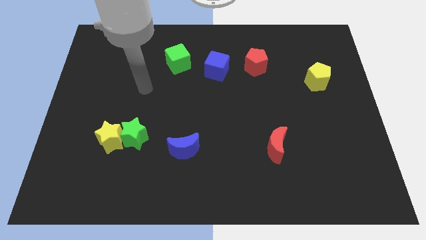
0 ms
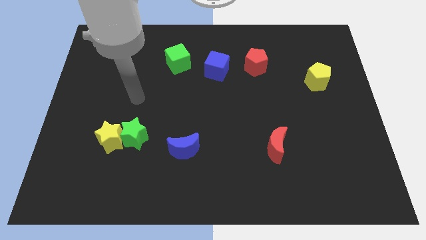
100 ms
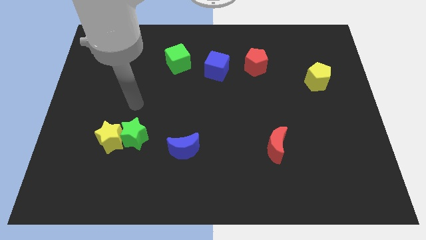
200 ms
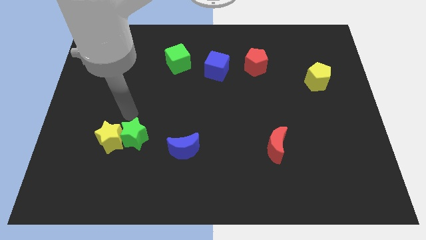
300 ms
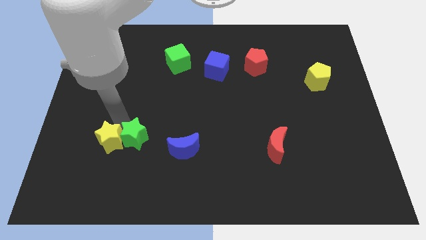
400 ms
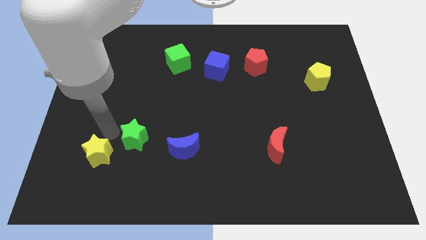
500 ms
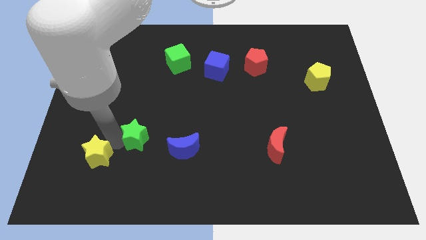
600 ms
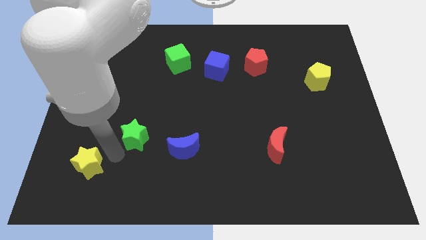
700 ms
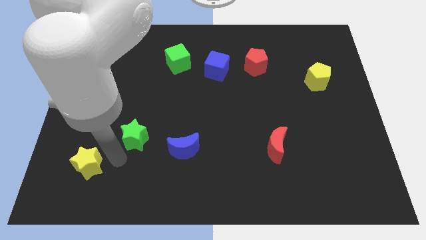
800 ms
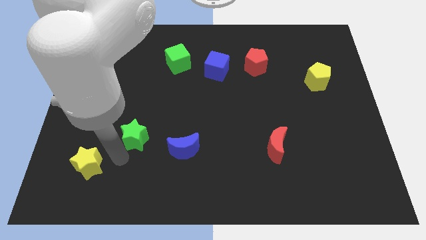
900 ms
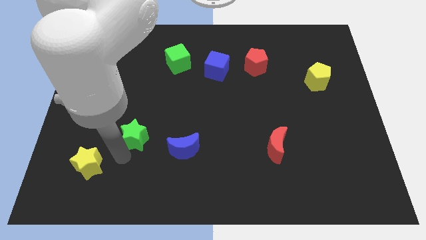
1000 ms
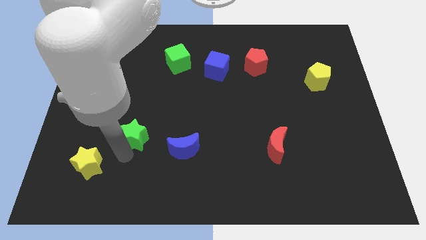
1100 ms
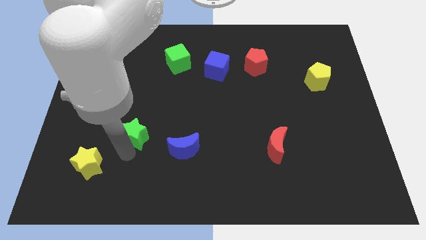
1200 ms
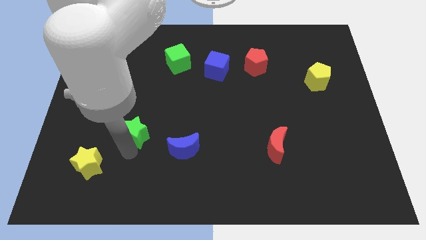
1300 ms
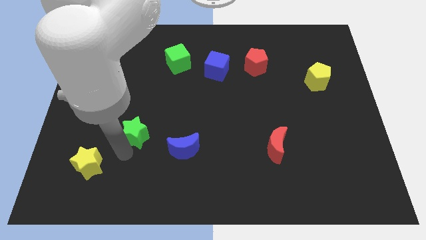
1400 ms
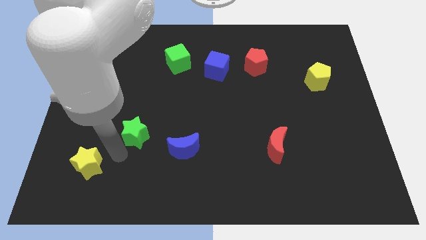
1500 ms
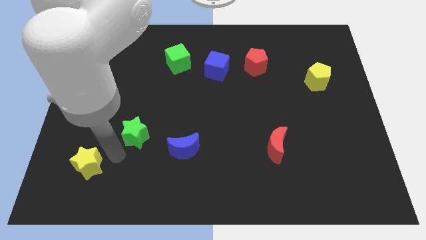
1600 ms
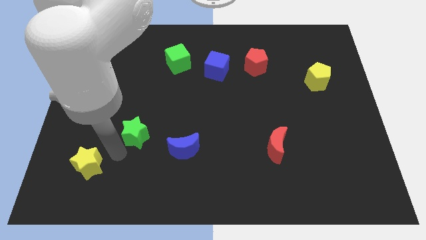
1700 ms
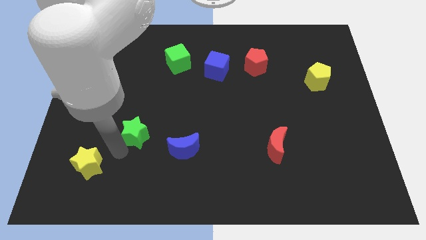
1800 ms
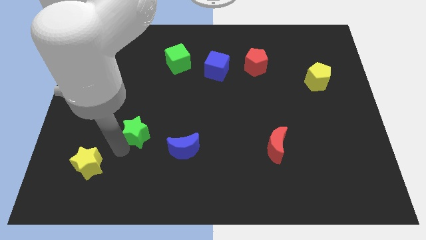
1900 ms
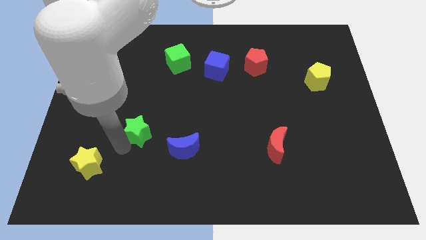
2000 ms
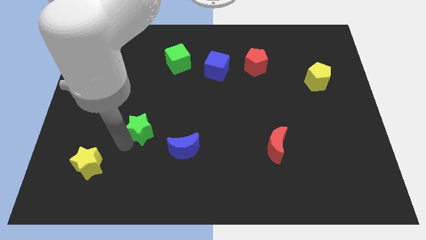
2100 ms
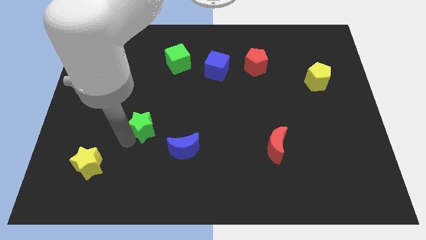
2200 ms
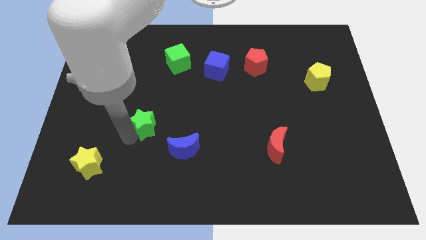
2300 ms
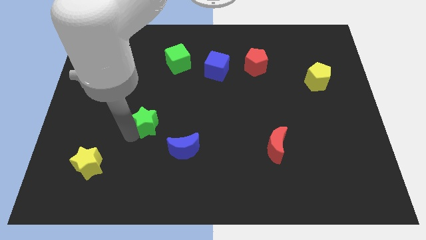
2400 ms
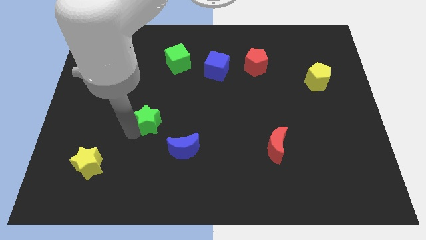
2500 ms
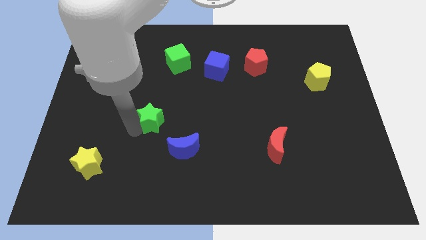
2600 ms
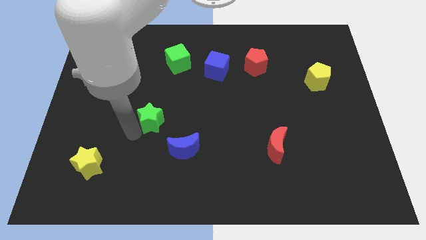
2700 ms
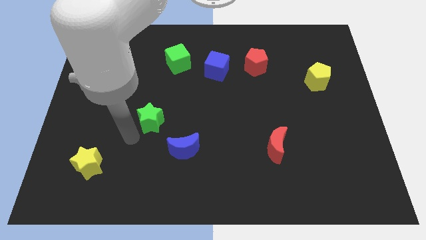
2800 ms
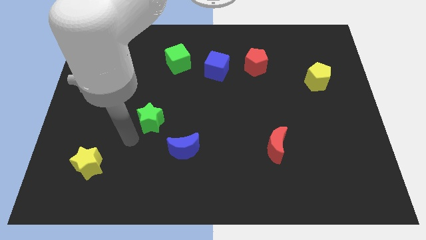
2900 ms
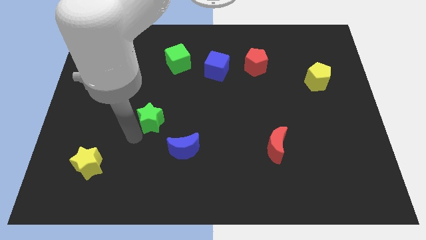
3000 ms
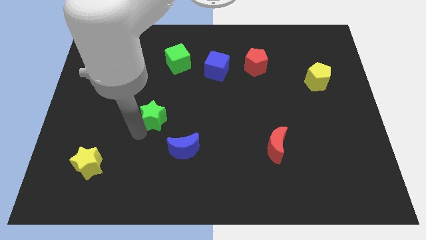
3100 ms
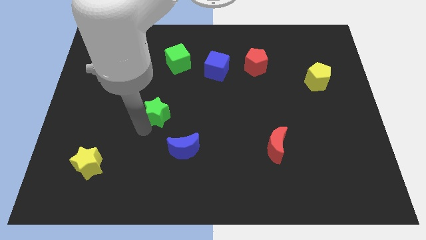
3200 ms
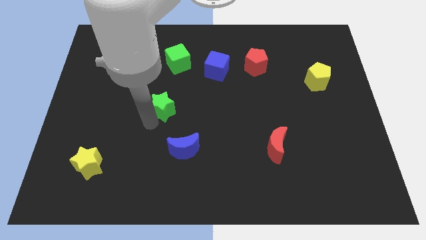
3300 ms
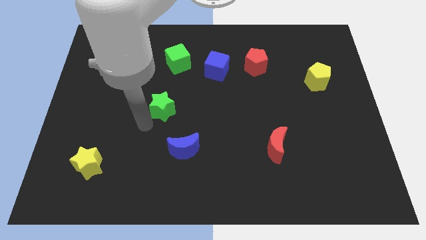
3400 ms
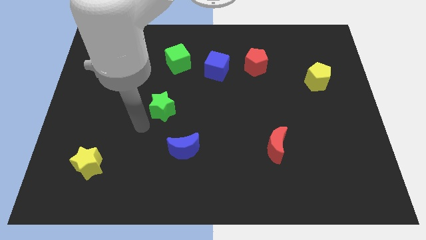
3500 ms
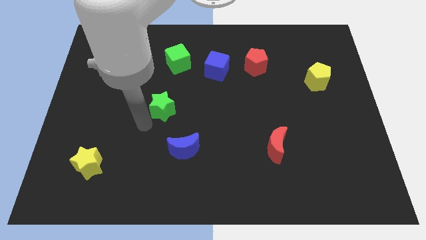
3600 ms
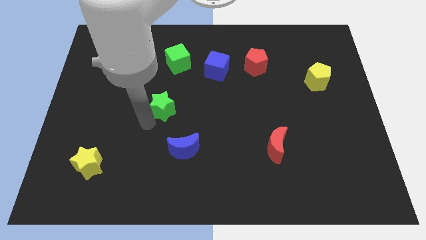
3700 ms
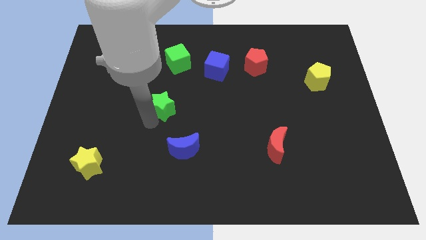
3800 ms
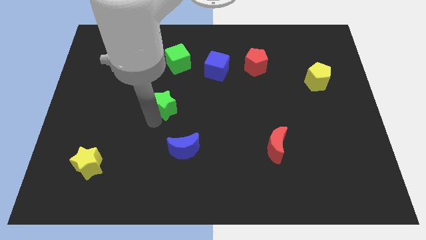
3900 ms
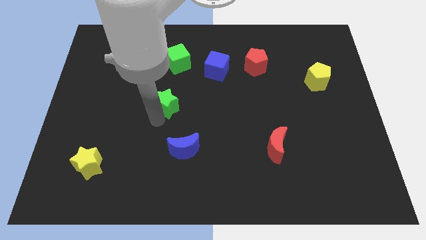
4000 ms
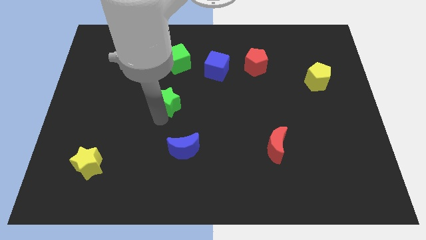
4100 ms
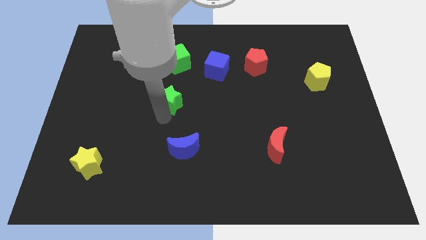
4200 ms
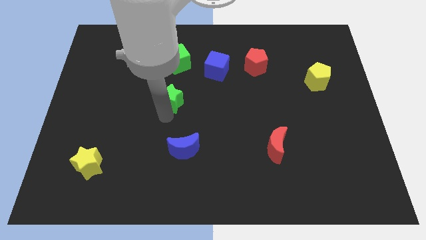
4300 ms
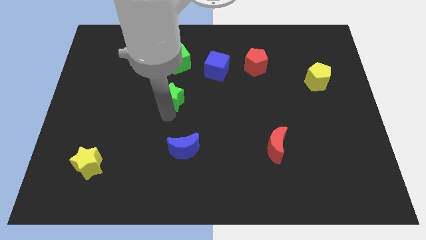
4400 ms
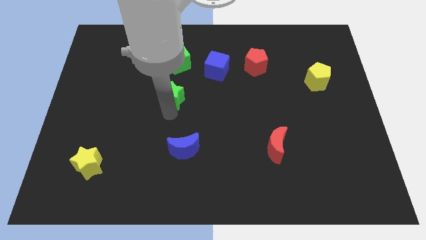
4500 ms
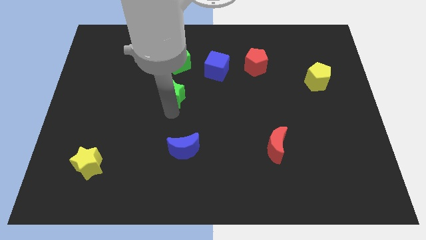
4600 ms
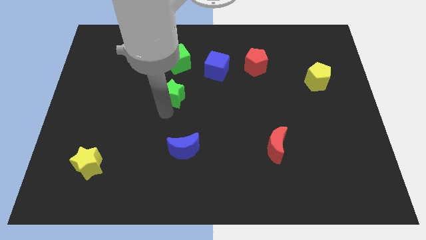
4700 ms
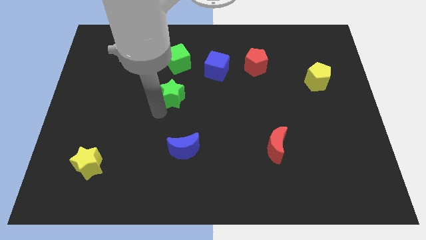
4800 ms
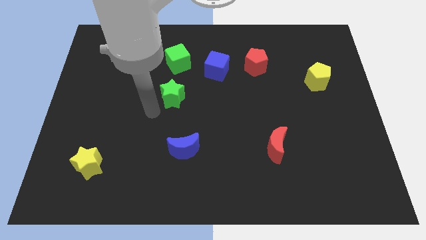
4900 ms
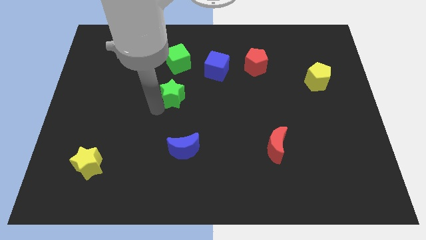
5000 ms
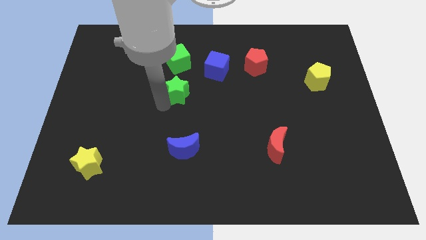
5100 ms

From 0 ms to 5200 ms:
move the green star to the bottom left side of the blue cube
